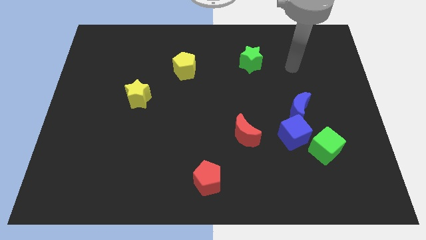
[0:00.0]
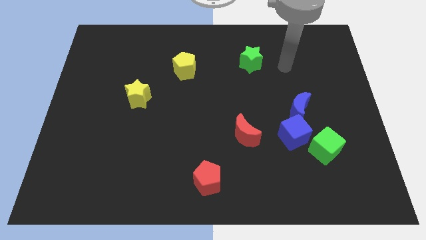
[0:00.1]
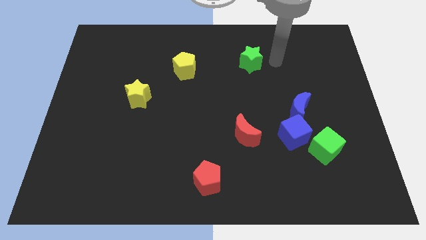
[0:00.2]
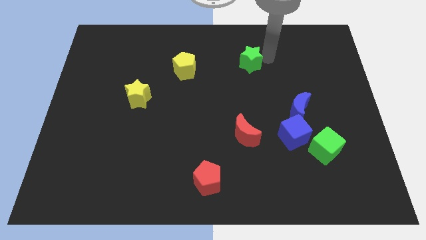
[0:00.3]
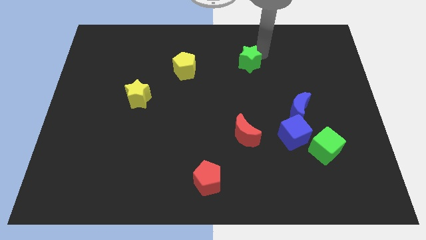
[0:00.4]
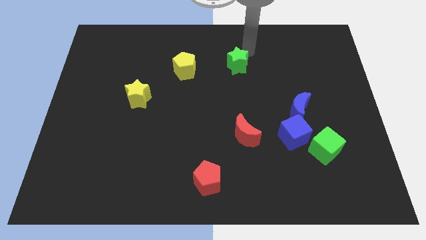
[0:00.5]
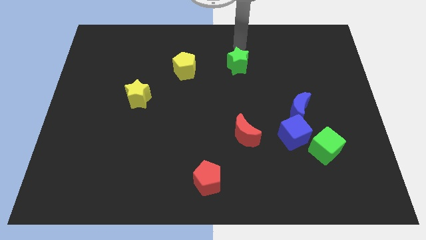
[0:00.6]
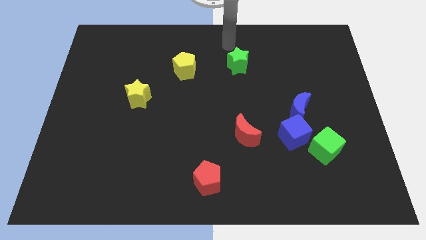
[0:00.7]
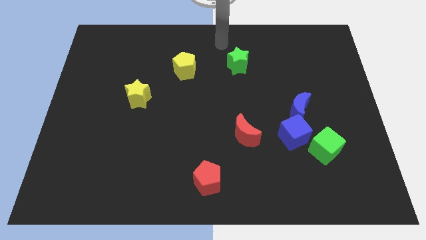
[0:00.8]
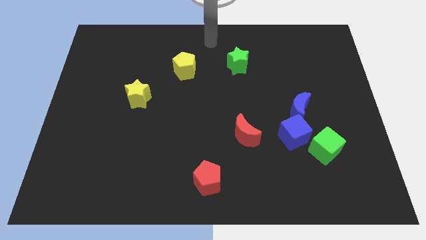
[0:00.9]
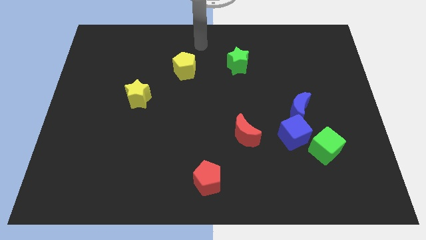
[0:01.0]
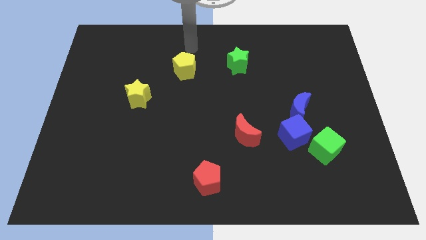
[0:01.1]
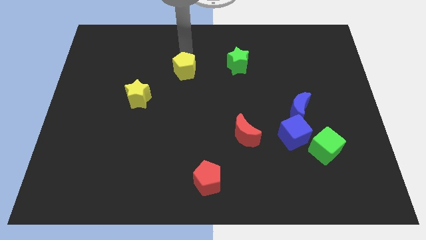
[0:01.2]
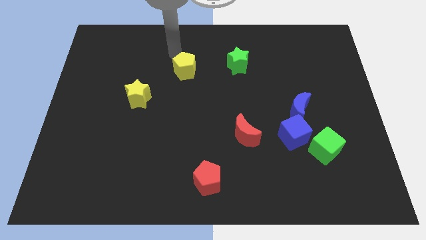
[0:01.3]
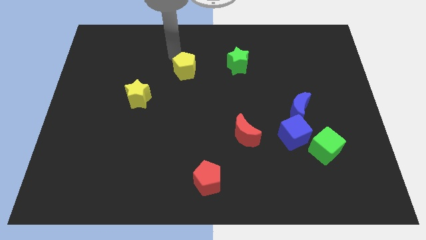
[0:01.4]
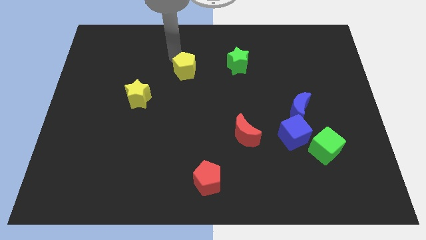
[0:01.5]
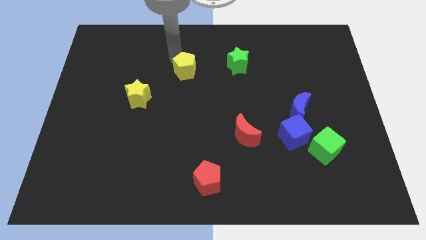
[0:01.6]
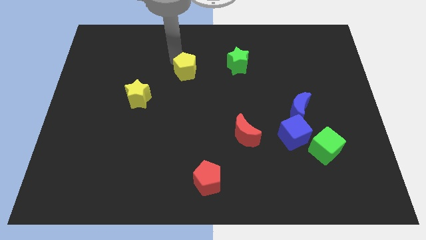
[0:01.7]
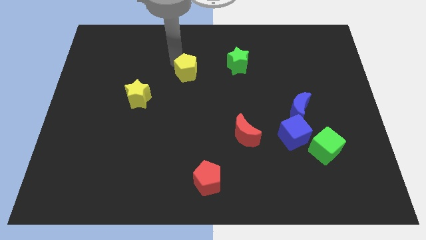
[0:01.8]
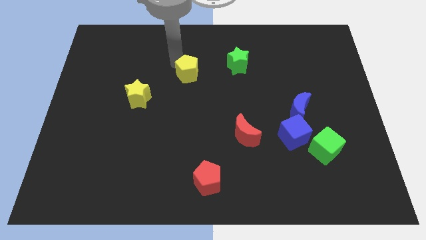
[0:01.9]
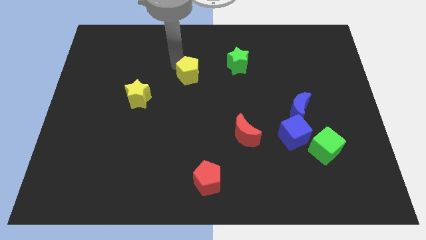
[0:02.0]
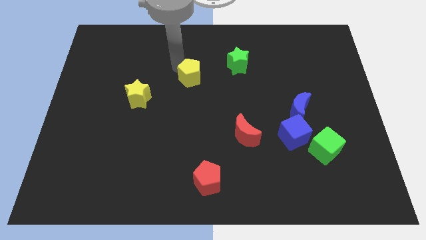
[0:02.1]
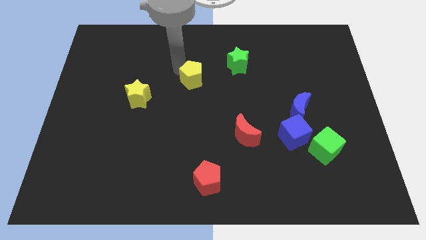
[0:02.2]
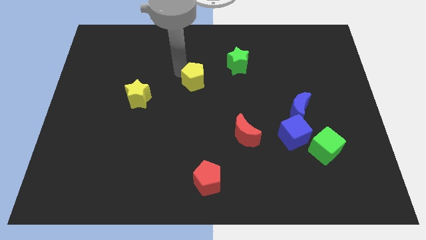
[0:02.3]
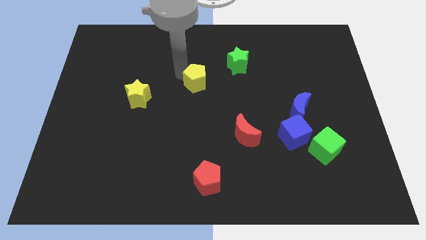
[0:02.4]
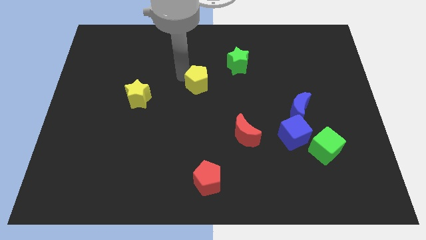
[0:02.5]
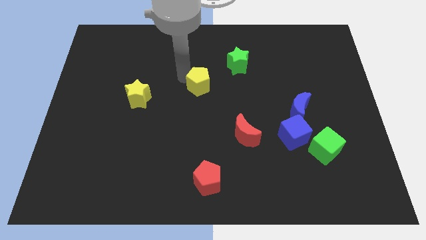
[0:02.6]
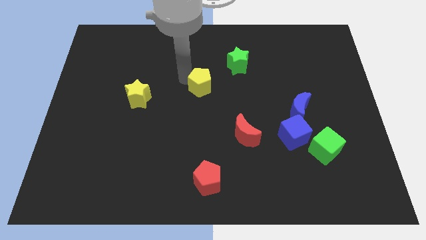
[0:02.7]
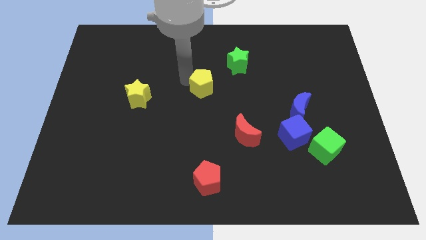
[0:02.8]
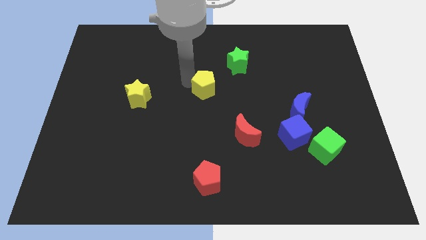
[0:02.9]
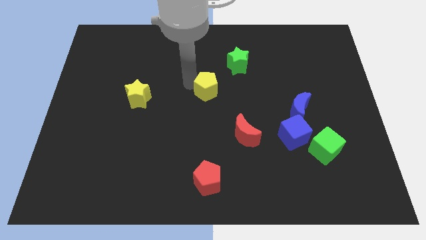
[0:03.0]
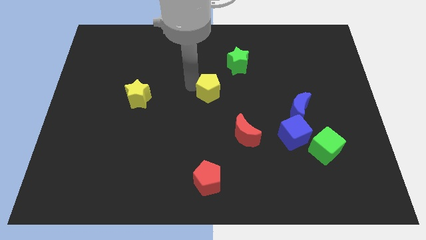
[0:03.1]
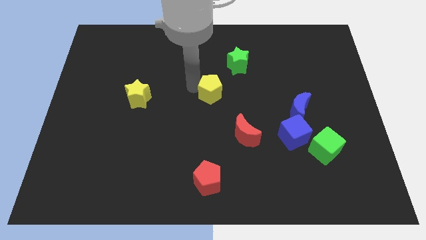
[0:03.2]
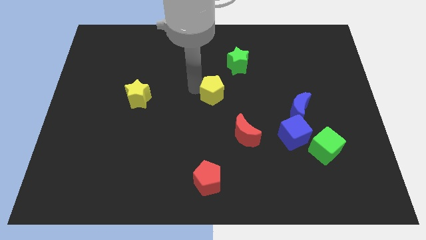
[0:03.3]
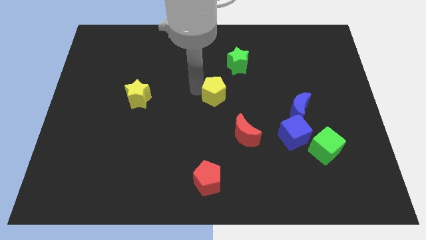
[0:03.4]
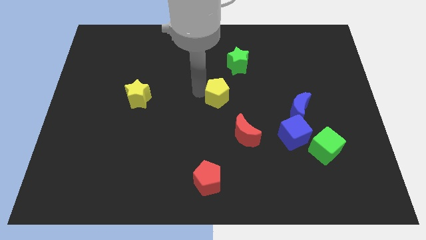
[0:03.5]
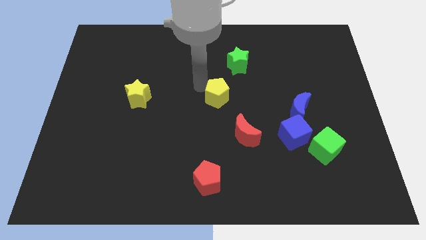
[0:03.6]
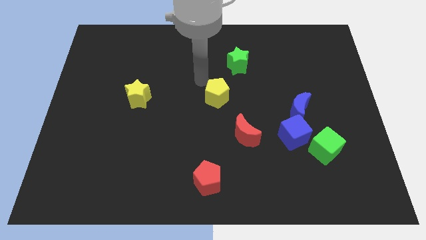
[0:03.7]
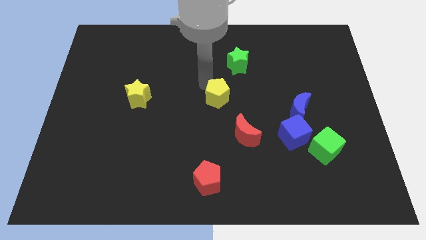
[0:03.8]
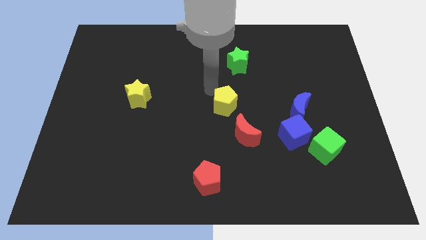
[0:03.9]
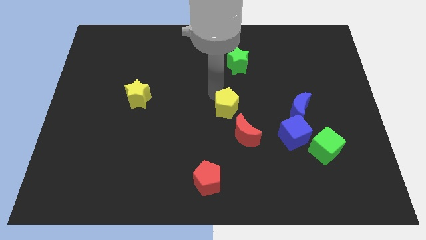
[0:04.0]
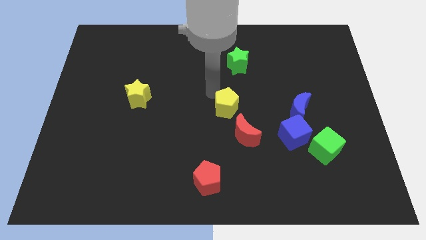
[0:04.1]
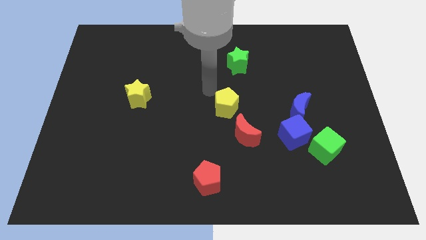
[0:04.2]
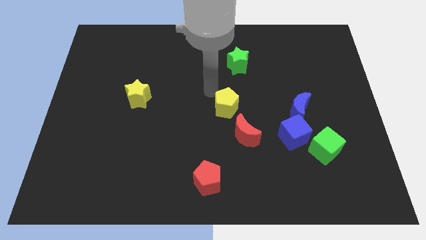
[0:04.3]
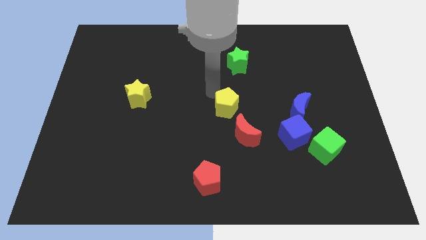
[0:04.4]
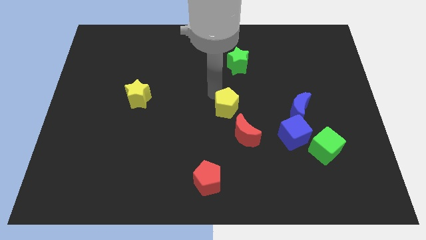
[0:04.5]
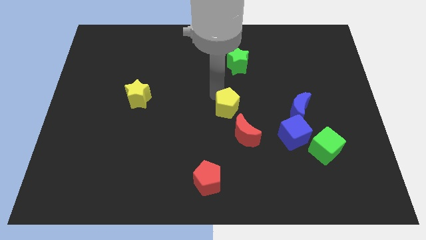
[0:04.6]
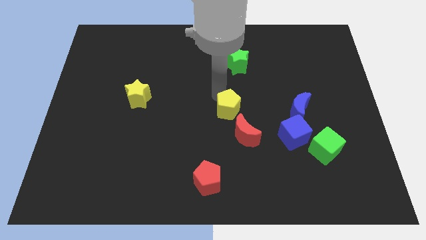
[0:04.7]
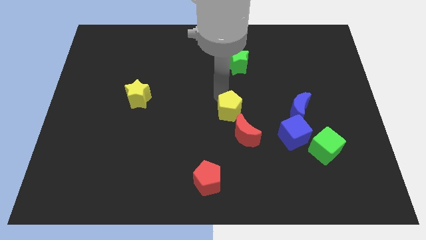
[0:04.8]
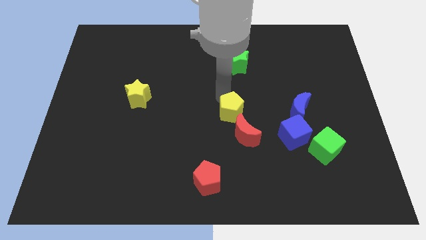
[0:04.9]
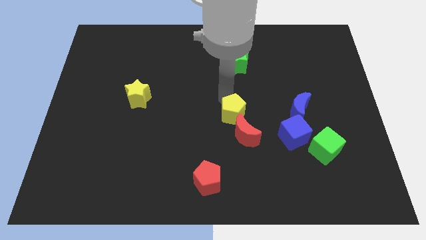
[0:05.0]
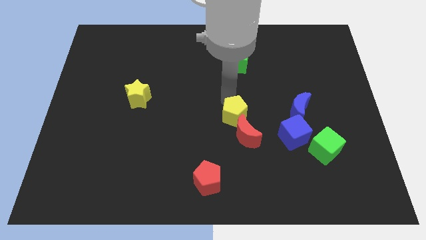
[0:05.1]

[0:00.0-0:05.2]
slide the yellow pentagon next to the red moon

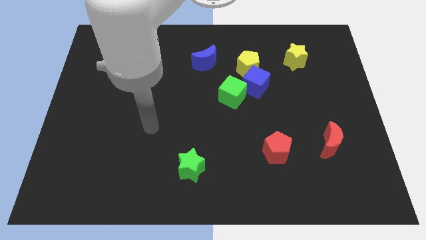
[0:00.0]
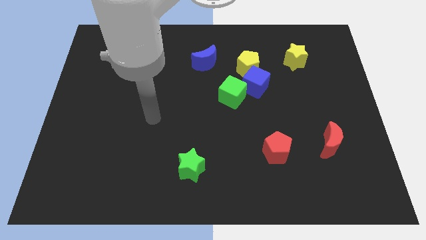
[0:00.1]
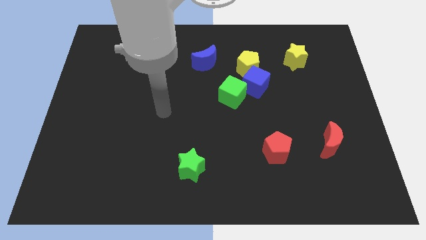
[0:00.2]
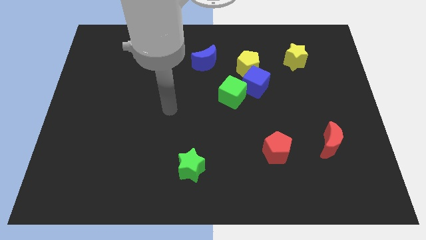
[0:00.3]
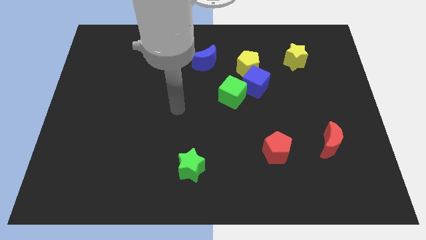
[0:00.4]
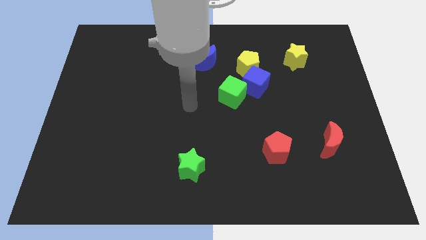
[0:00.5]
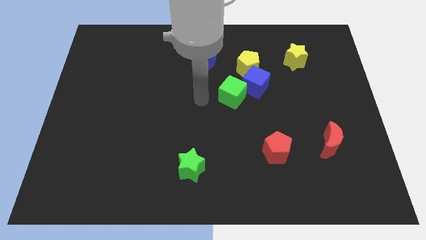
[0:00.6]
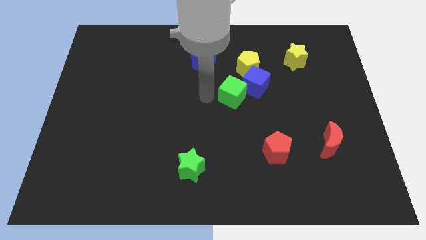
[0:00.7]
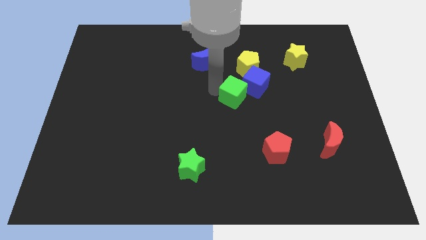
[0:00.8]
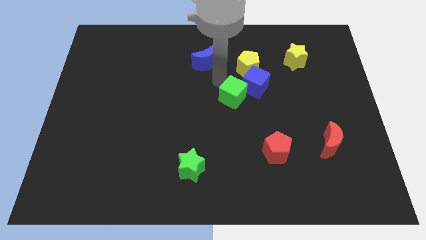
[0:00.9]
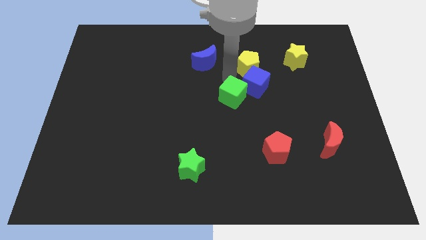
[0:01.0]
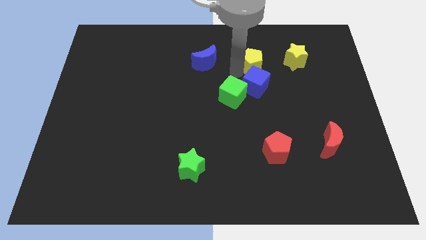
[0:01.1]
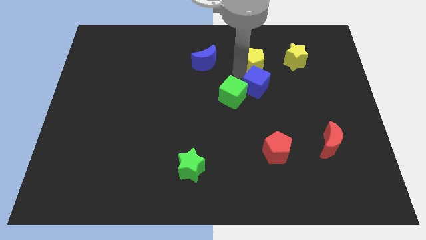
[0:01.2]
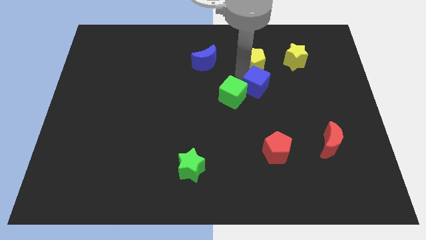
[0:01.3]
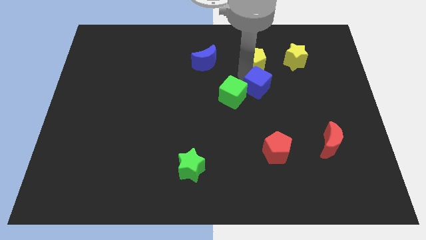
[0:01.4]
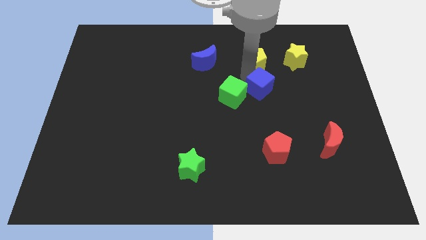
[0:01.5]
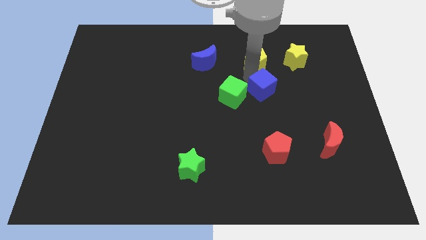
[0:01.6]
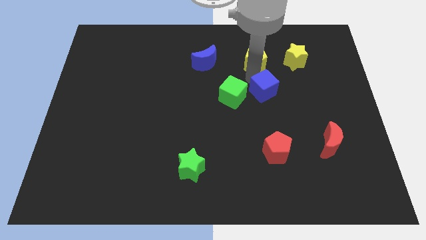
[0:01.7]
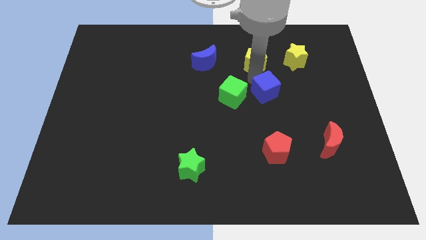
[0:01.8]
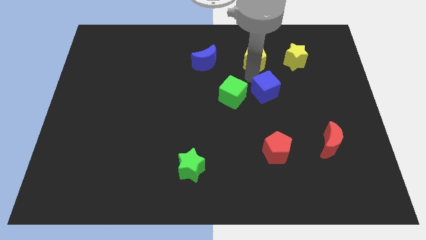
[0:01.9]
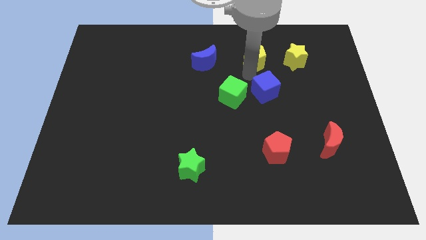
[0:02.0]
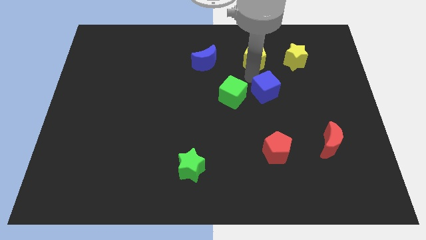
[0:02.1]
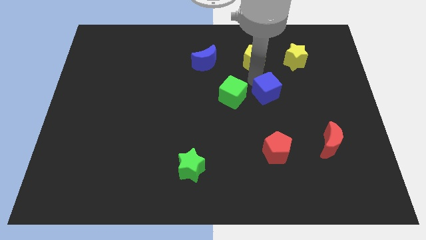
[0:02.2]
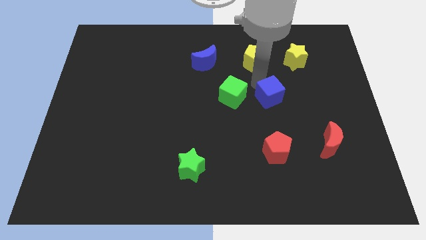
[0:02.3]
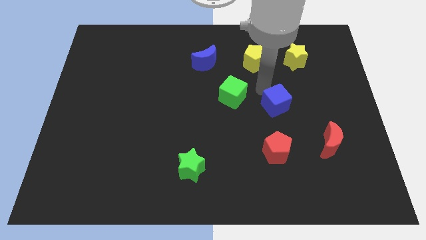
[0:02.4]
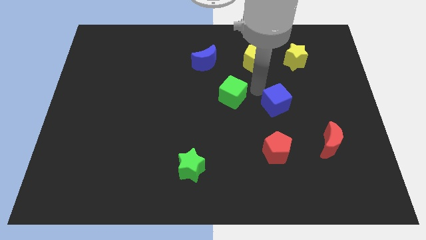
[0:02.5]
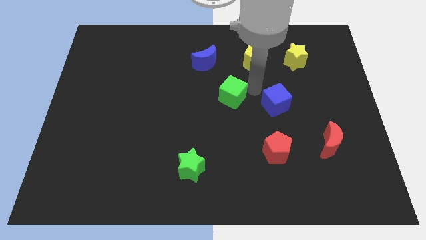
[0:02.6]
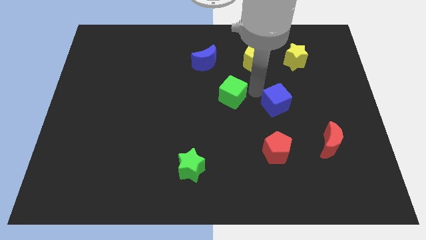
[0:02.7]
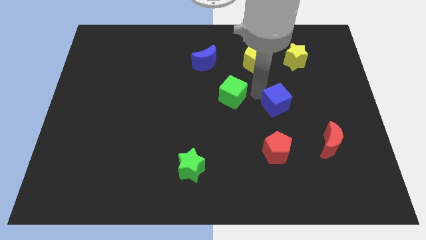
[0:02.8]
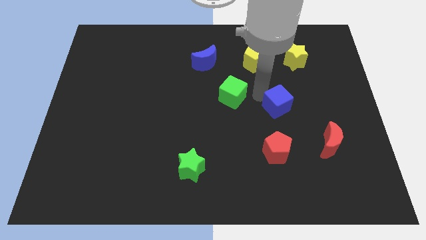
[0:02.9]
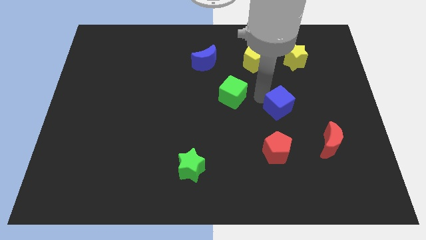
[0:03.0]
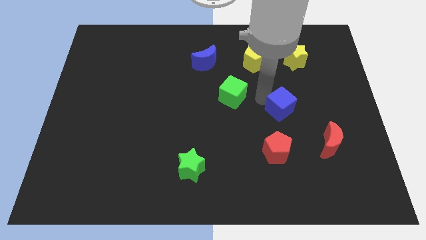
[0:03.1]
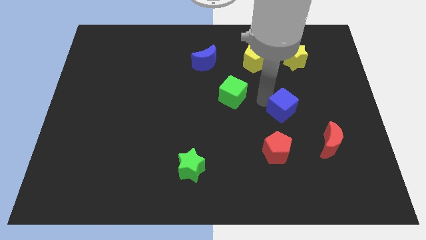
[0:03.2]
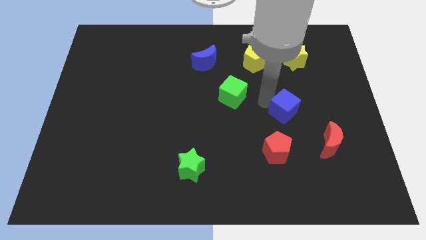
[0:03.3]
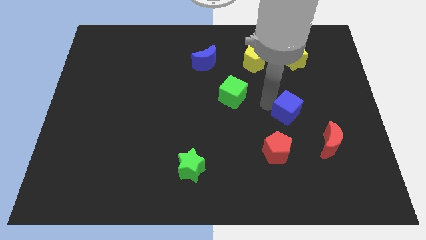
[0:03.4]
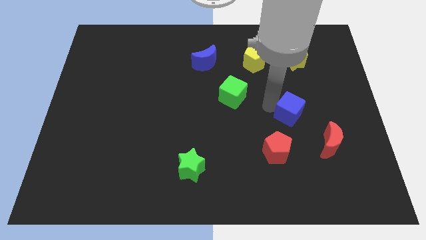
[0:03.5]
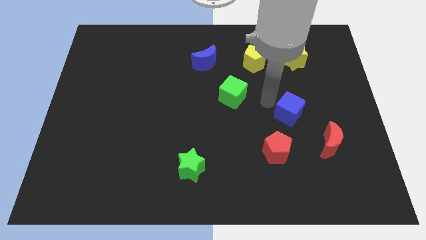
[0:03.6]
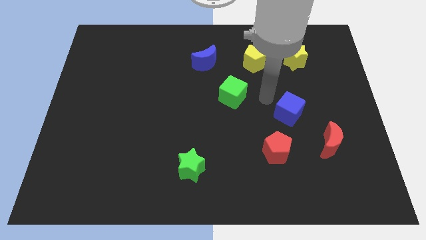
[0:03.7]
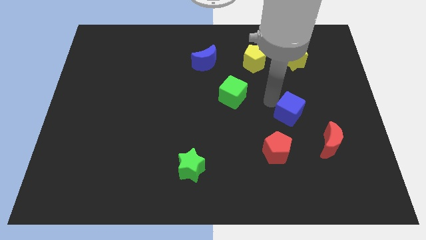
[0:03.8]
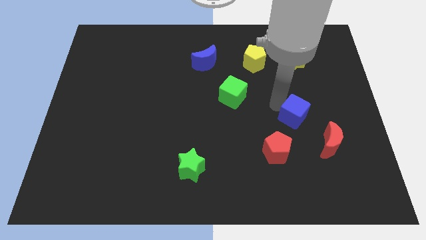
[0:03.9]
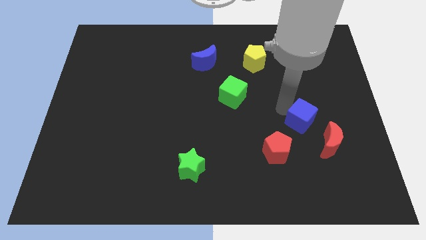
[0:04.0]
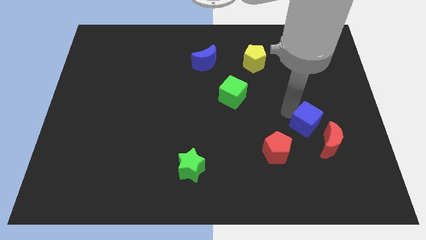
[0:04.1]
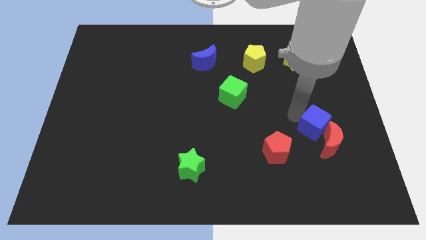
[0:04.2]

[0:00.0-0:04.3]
push the blue cube towards the red moon
